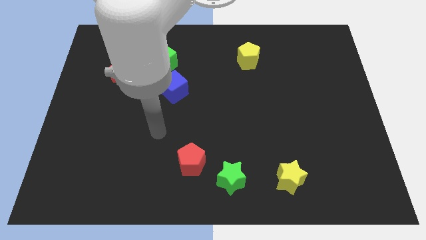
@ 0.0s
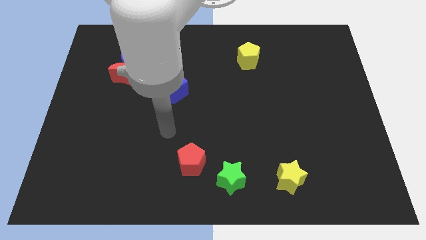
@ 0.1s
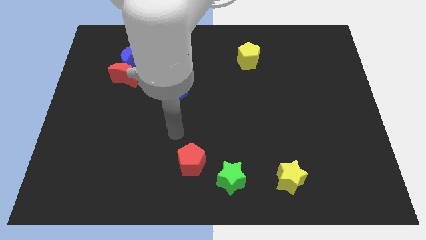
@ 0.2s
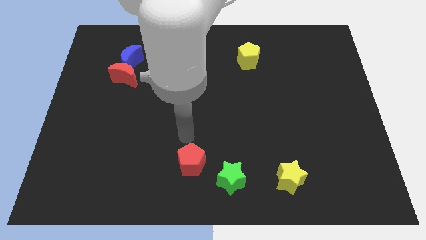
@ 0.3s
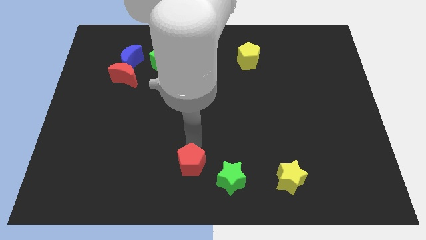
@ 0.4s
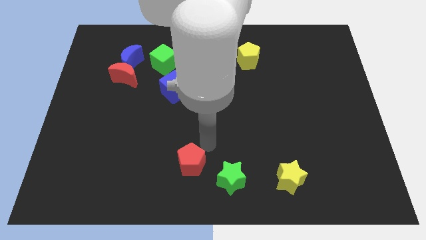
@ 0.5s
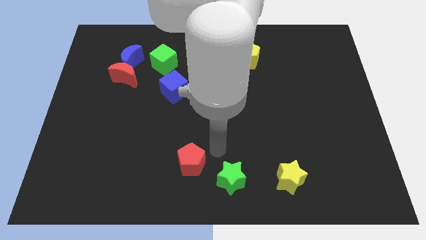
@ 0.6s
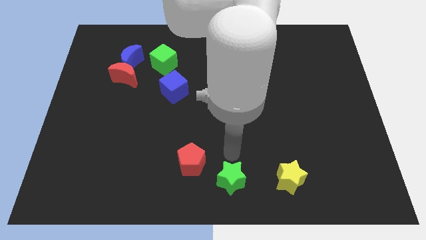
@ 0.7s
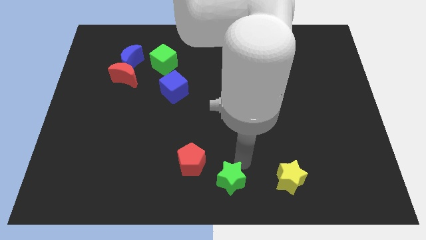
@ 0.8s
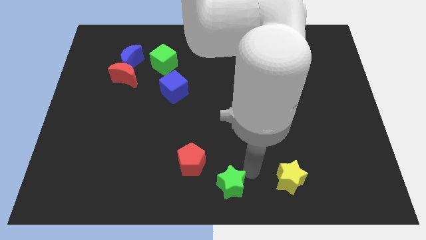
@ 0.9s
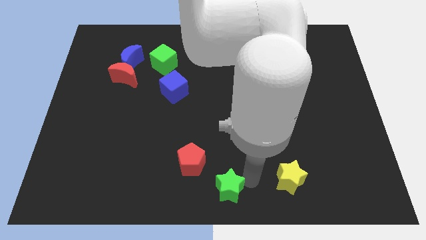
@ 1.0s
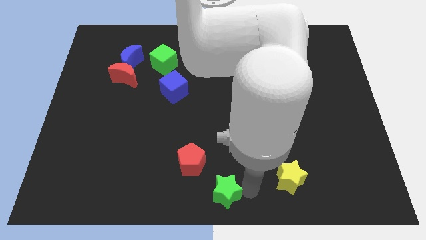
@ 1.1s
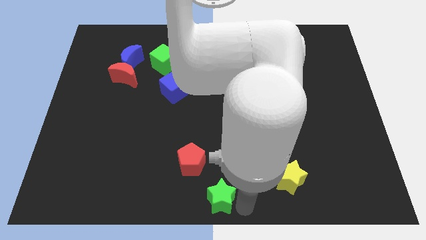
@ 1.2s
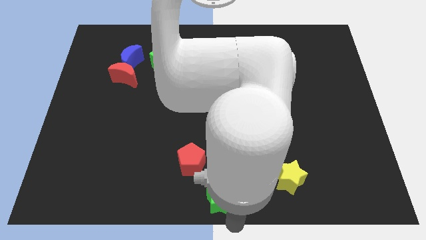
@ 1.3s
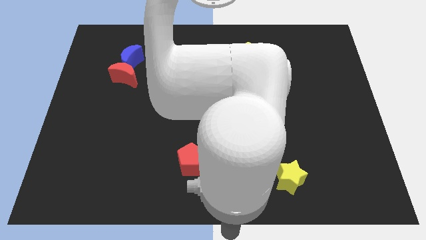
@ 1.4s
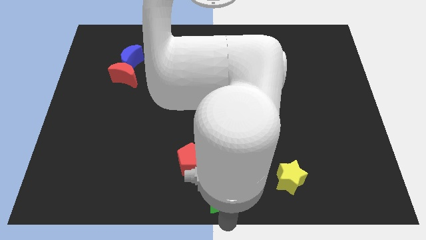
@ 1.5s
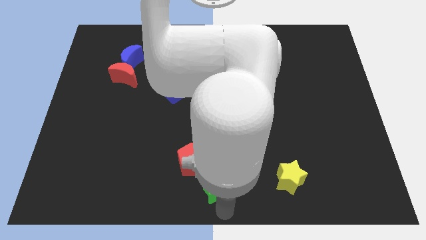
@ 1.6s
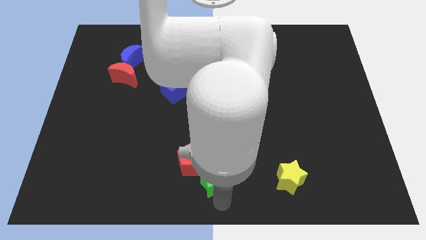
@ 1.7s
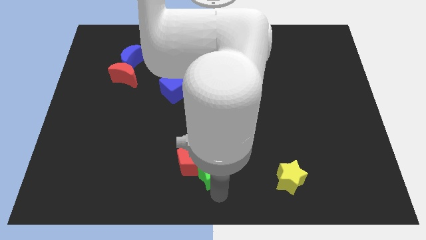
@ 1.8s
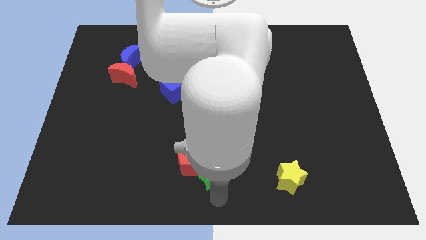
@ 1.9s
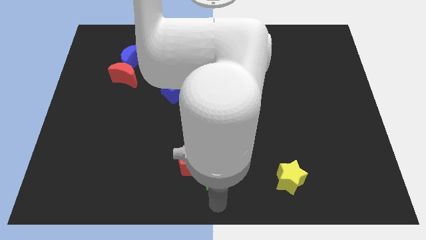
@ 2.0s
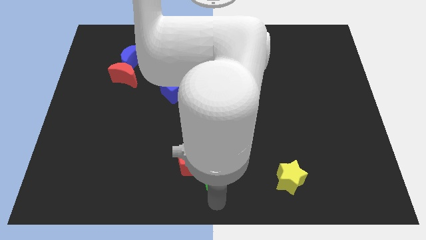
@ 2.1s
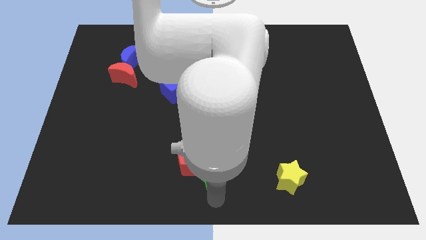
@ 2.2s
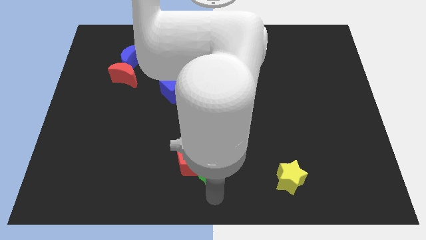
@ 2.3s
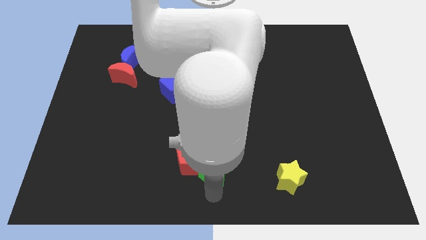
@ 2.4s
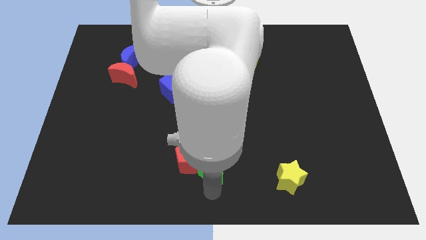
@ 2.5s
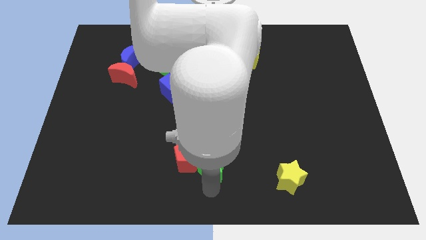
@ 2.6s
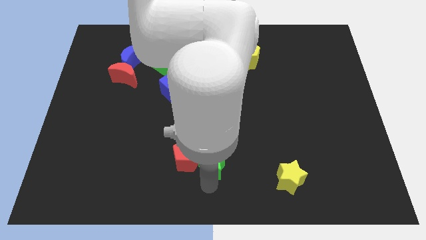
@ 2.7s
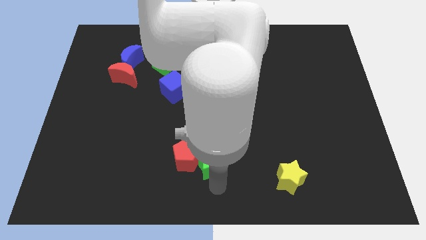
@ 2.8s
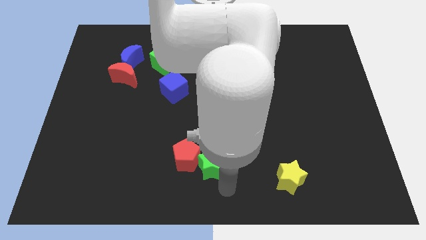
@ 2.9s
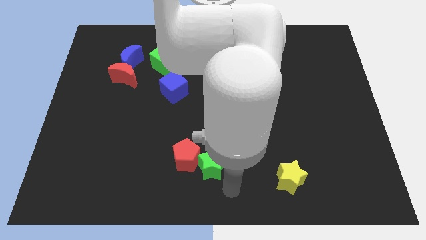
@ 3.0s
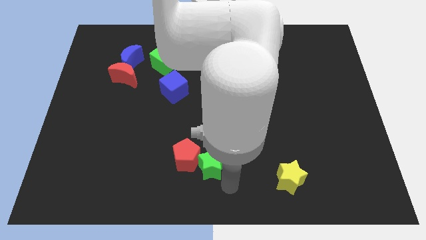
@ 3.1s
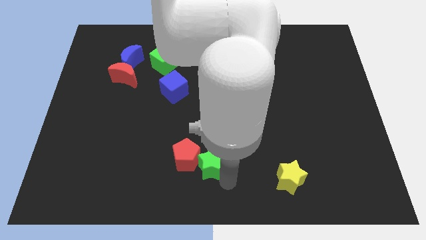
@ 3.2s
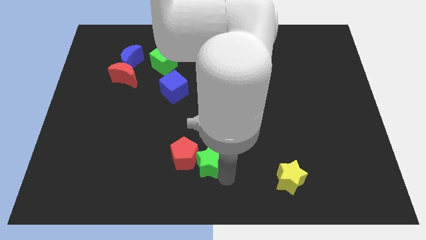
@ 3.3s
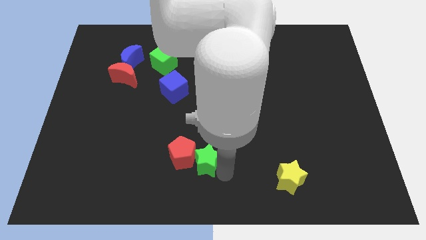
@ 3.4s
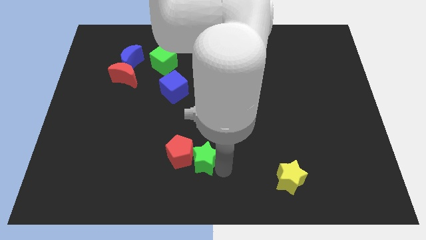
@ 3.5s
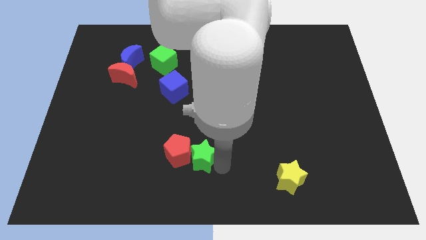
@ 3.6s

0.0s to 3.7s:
slightly slide the green star diagonally up and left

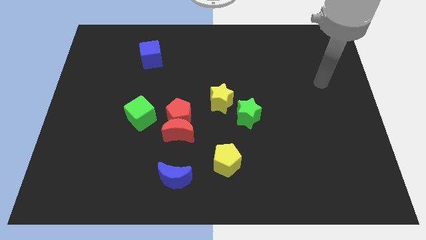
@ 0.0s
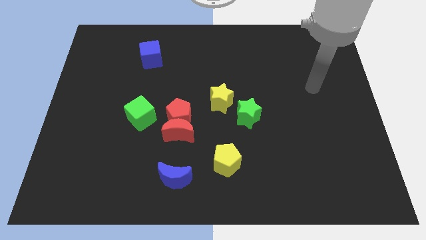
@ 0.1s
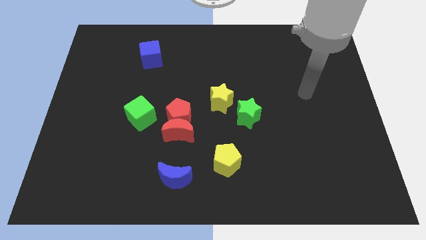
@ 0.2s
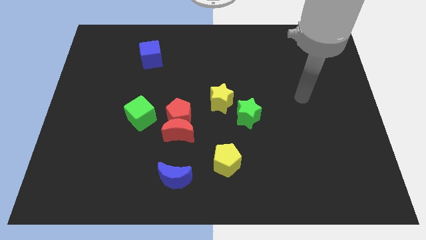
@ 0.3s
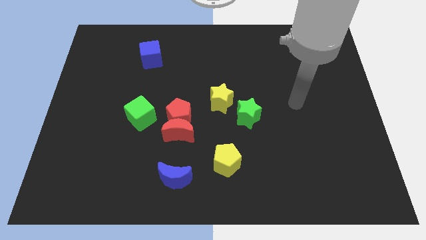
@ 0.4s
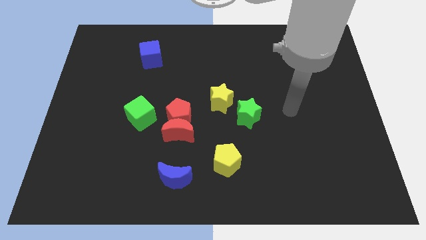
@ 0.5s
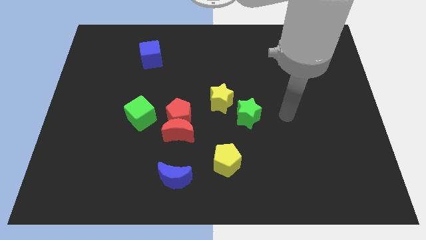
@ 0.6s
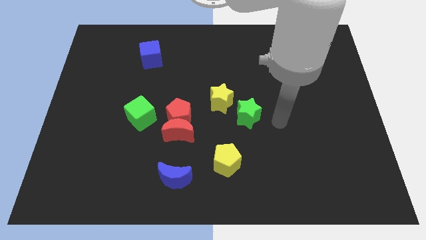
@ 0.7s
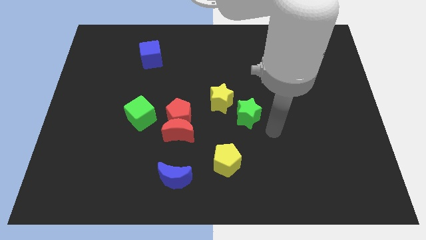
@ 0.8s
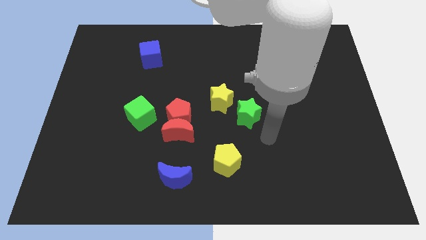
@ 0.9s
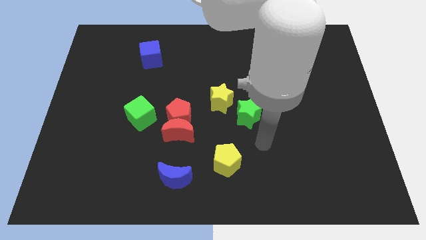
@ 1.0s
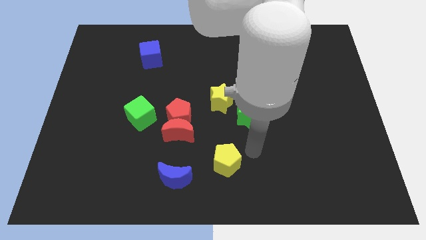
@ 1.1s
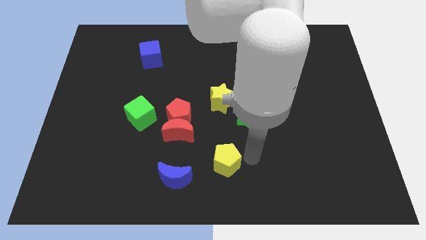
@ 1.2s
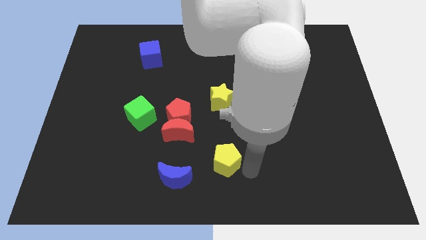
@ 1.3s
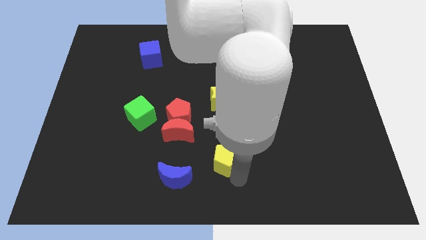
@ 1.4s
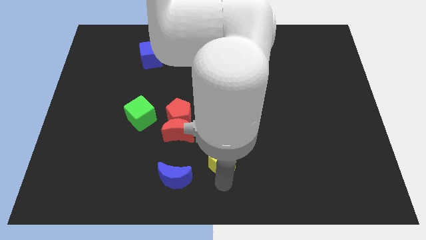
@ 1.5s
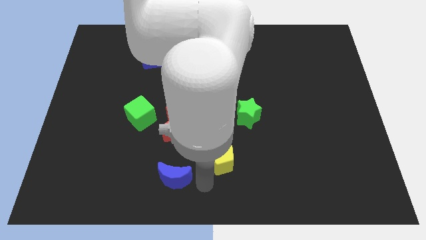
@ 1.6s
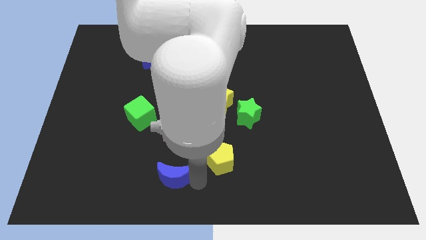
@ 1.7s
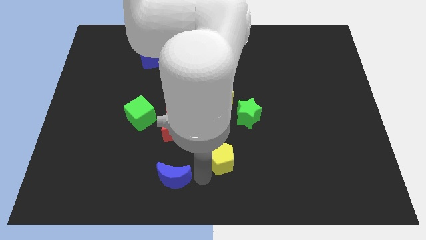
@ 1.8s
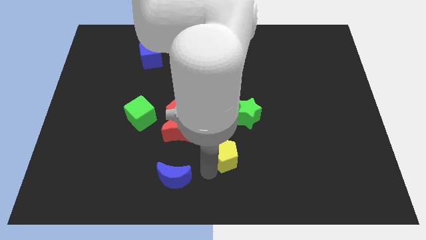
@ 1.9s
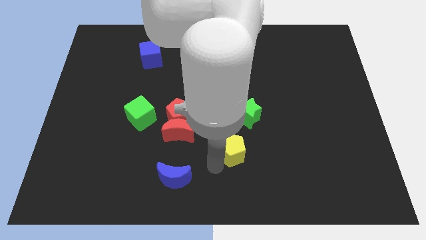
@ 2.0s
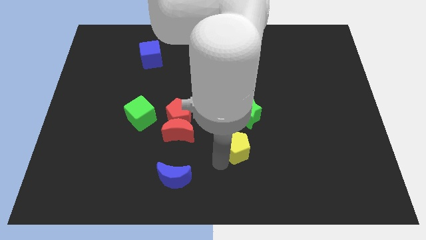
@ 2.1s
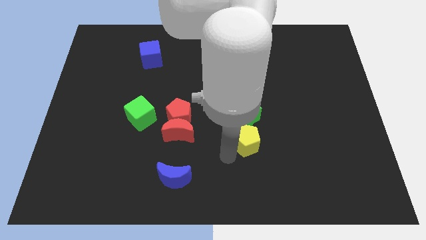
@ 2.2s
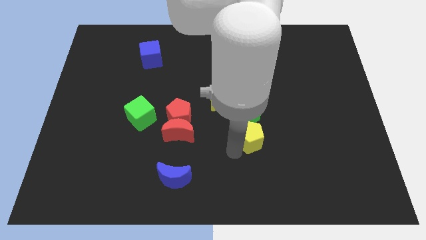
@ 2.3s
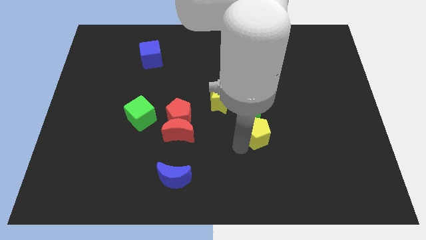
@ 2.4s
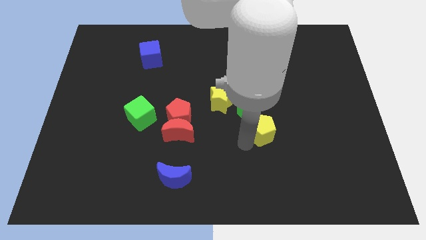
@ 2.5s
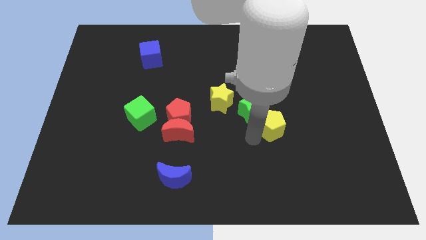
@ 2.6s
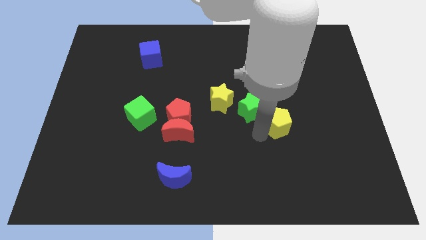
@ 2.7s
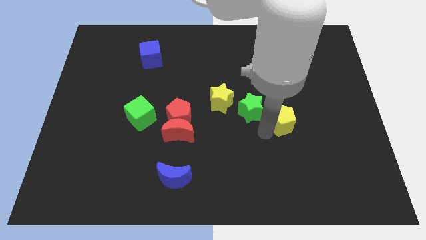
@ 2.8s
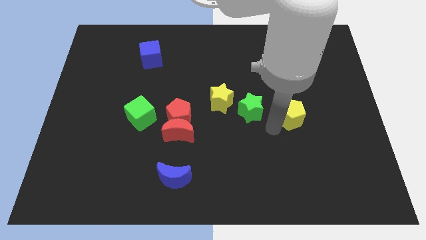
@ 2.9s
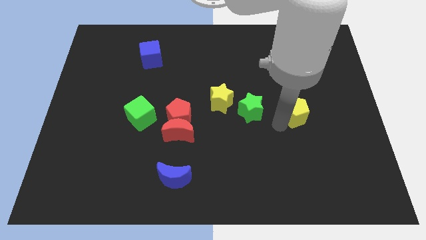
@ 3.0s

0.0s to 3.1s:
slide the yellow pentagon up and right

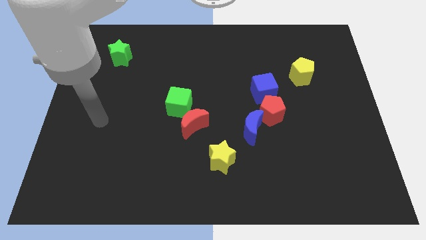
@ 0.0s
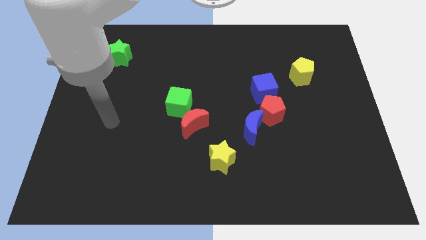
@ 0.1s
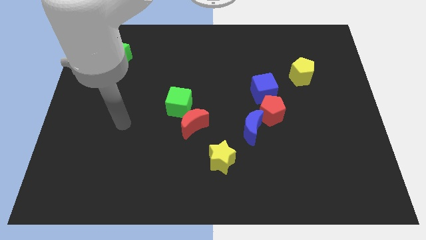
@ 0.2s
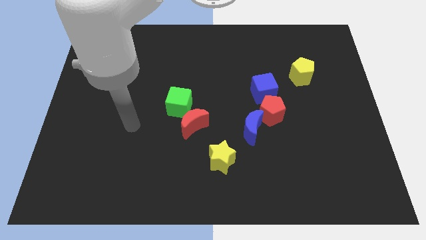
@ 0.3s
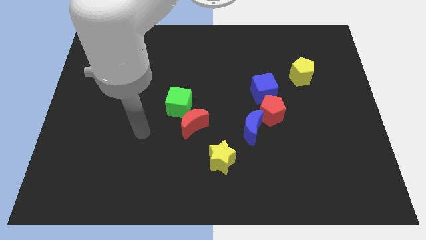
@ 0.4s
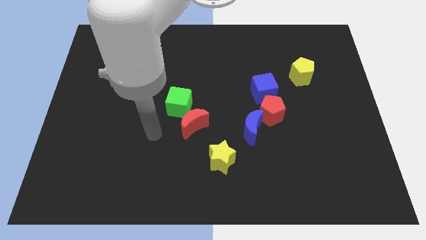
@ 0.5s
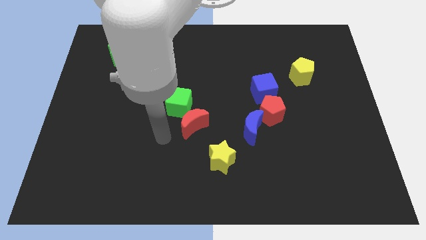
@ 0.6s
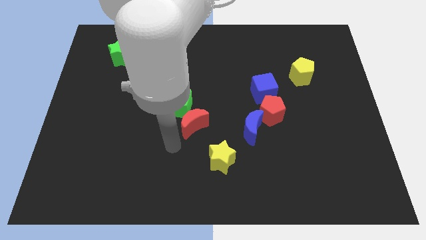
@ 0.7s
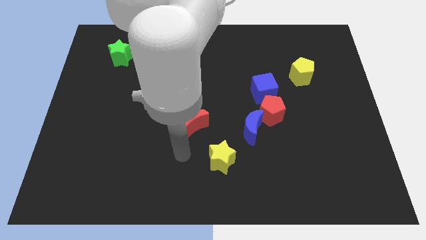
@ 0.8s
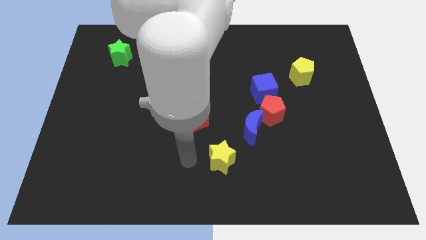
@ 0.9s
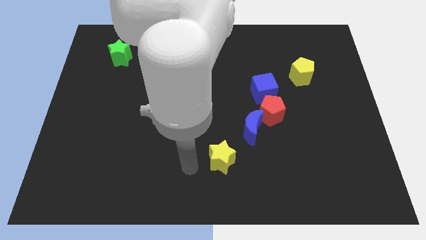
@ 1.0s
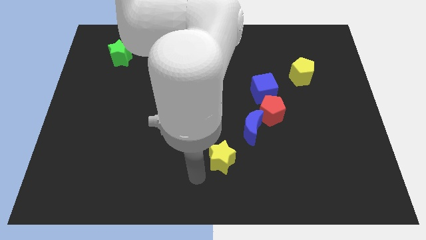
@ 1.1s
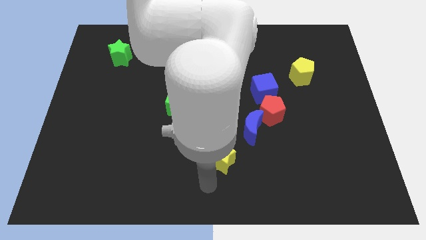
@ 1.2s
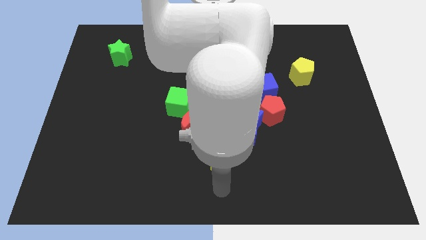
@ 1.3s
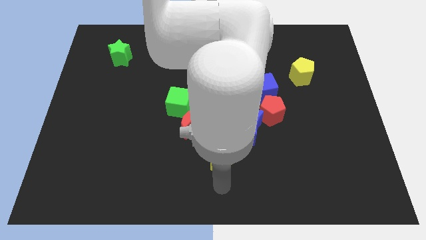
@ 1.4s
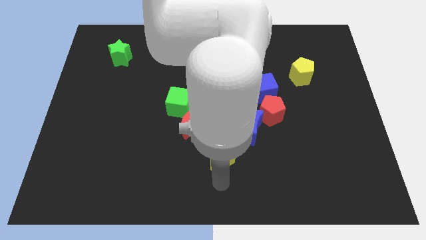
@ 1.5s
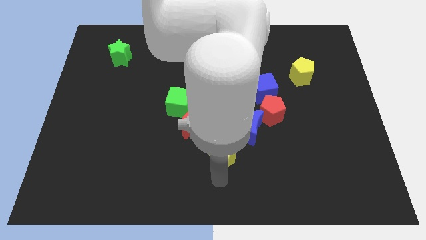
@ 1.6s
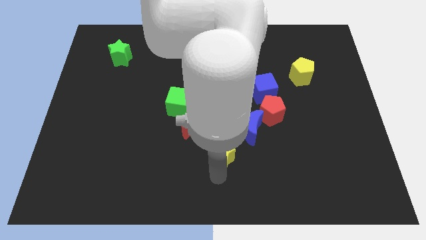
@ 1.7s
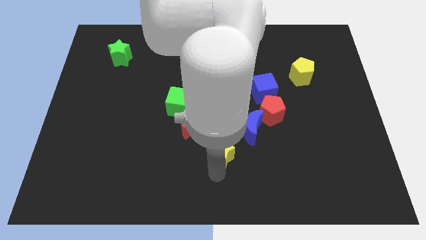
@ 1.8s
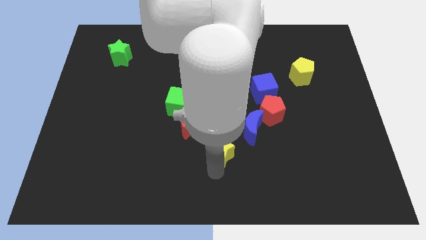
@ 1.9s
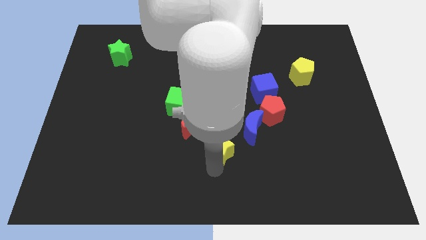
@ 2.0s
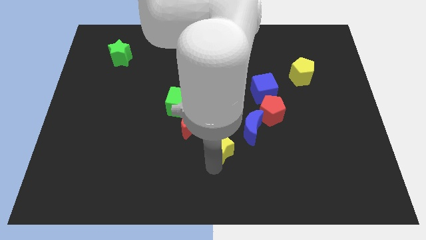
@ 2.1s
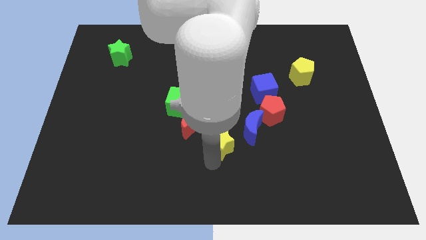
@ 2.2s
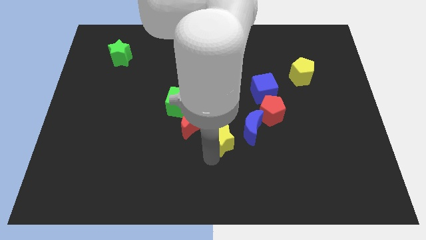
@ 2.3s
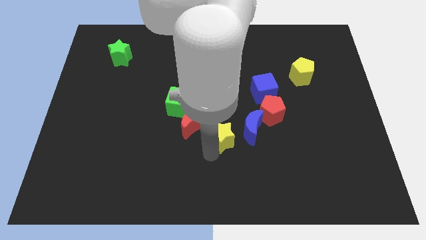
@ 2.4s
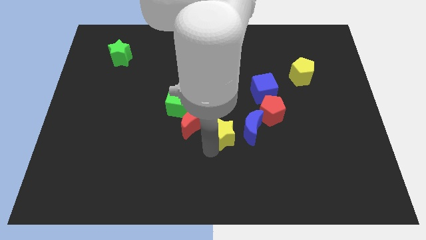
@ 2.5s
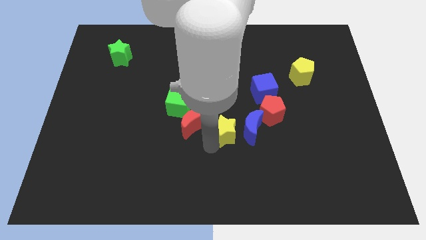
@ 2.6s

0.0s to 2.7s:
slide the yellow star slightly upwards
